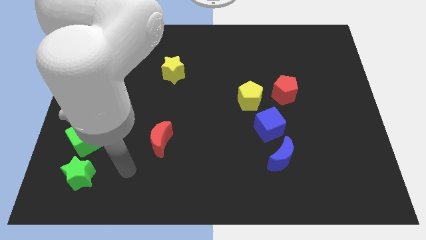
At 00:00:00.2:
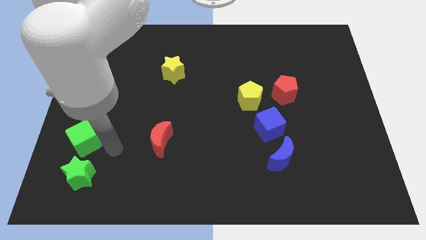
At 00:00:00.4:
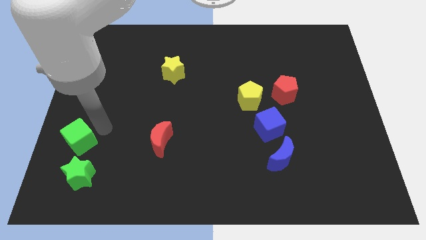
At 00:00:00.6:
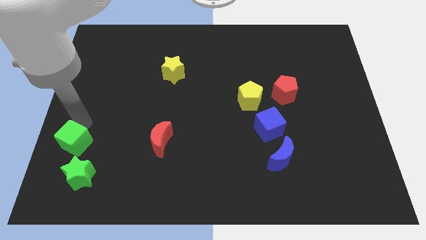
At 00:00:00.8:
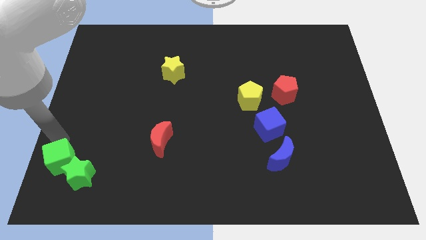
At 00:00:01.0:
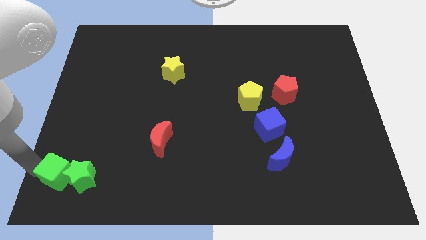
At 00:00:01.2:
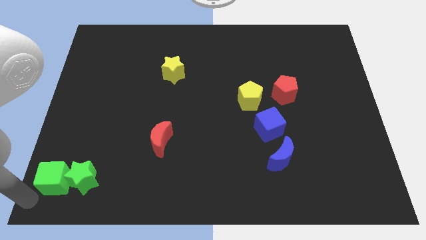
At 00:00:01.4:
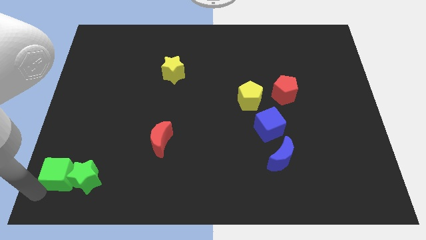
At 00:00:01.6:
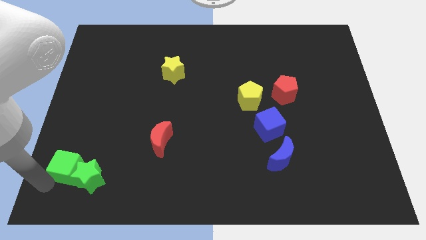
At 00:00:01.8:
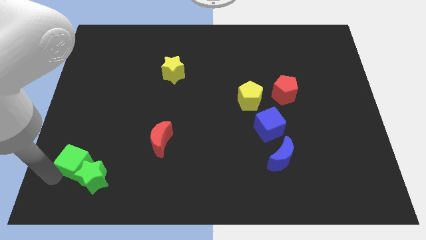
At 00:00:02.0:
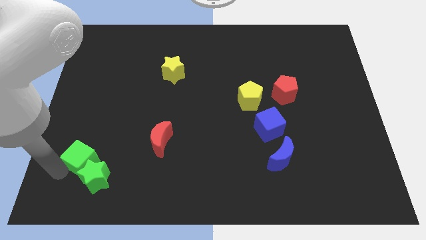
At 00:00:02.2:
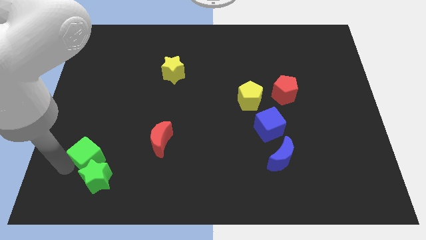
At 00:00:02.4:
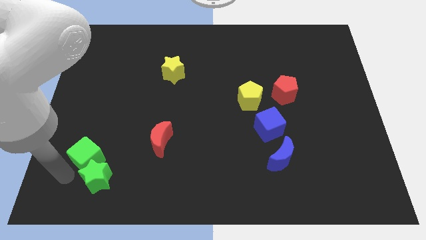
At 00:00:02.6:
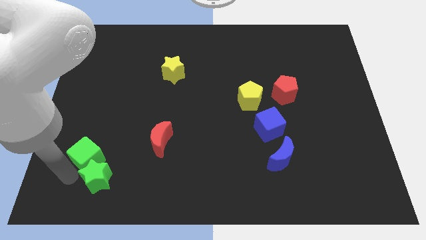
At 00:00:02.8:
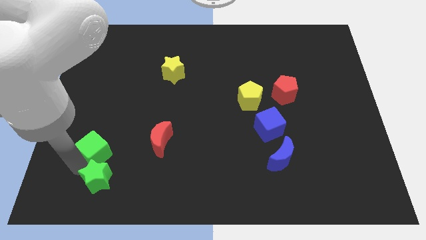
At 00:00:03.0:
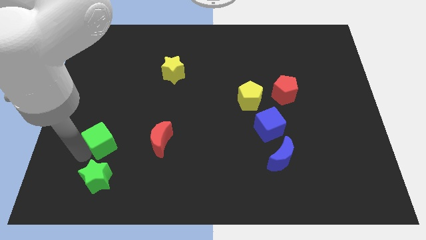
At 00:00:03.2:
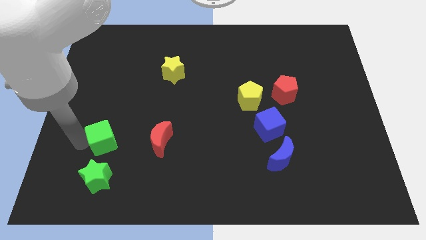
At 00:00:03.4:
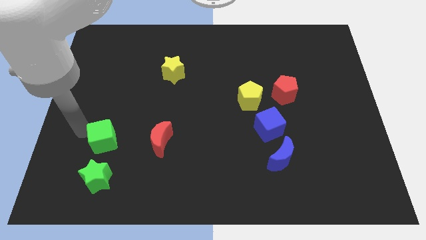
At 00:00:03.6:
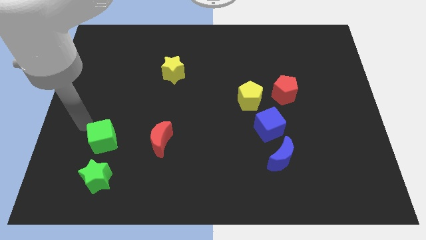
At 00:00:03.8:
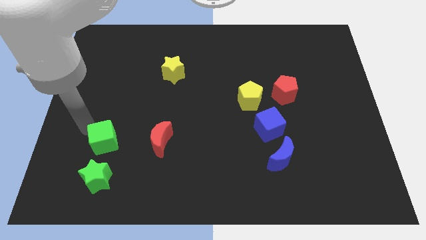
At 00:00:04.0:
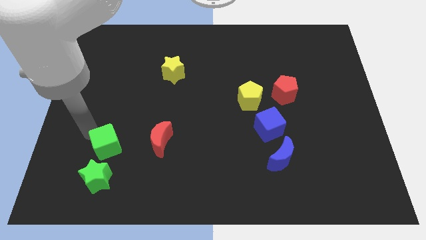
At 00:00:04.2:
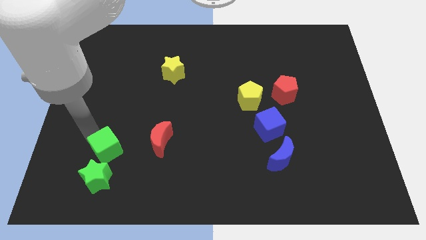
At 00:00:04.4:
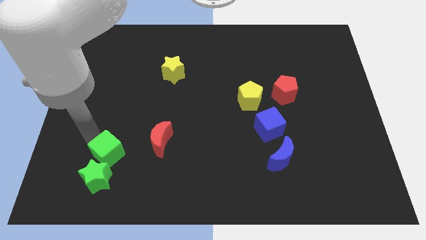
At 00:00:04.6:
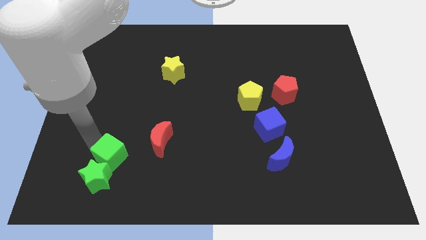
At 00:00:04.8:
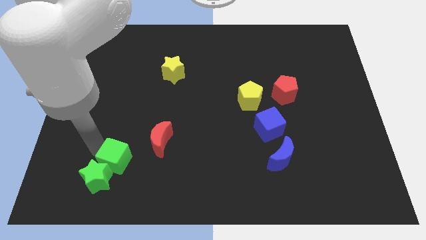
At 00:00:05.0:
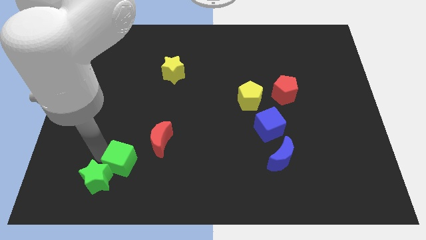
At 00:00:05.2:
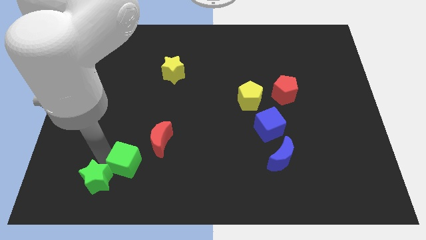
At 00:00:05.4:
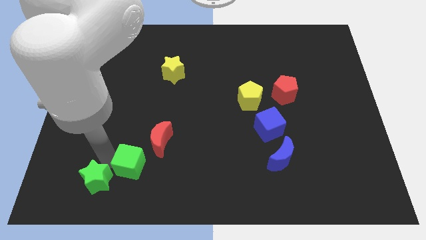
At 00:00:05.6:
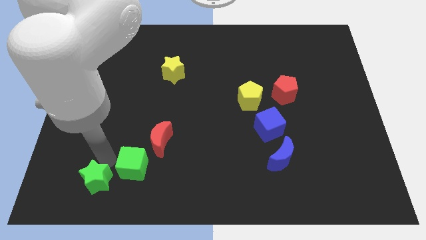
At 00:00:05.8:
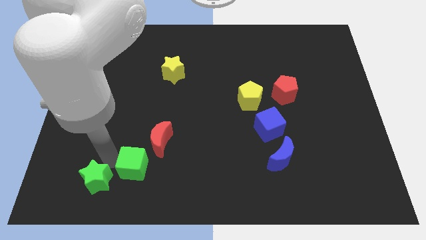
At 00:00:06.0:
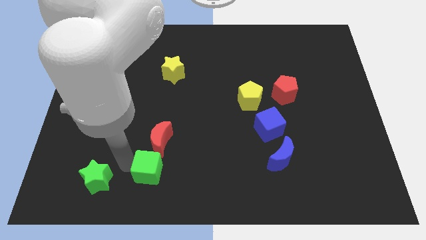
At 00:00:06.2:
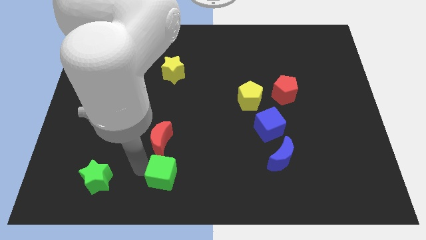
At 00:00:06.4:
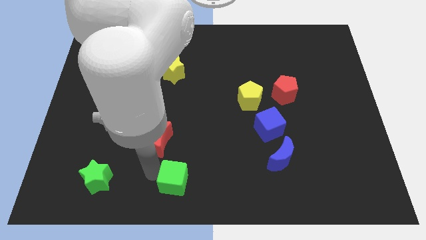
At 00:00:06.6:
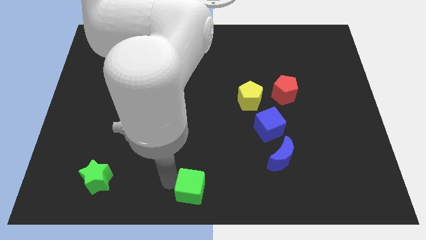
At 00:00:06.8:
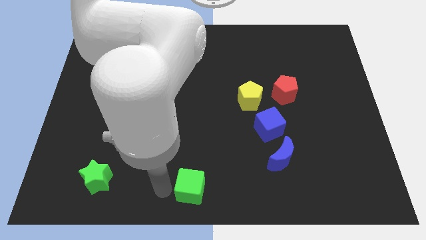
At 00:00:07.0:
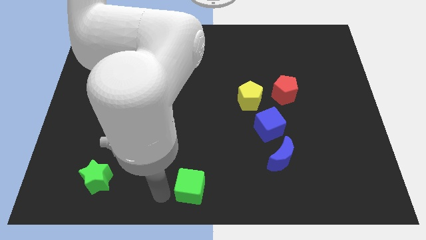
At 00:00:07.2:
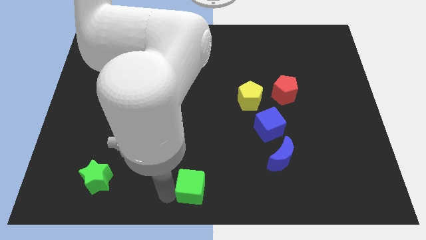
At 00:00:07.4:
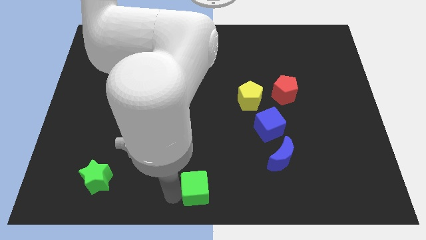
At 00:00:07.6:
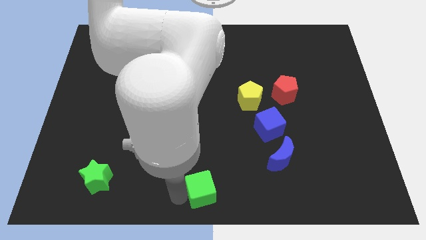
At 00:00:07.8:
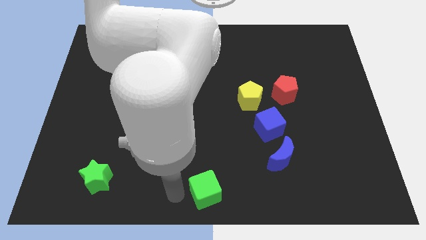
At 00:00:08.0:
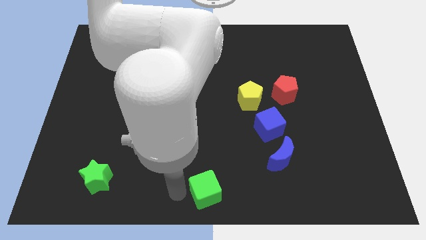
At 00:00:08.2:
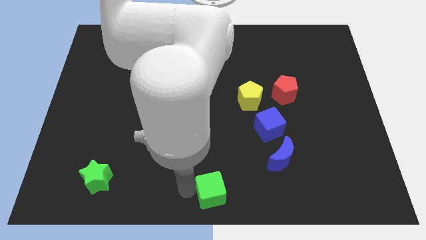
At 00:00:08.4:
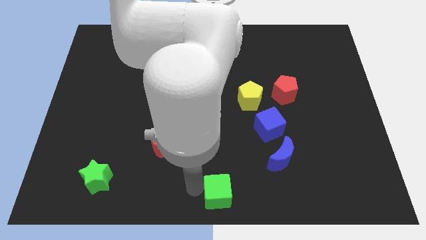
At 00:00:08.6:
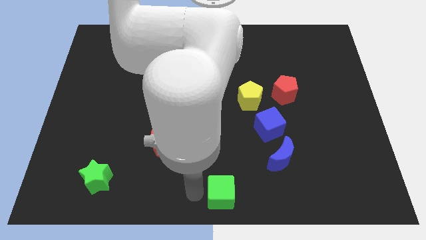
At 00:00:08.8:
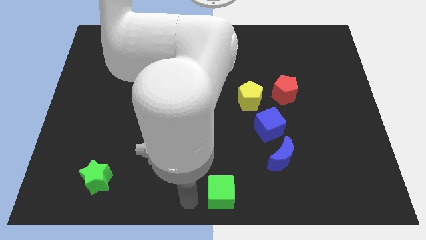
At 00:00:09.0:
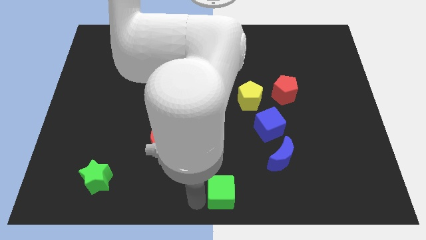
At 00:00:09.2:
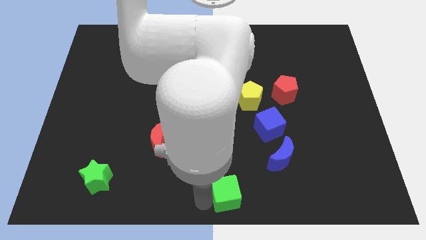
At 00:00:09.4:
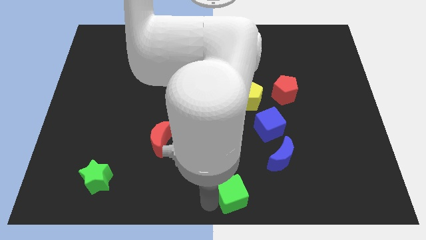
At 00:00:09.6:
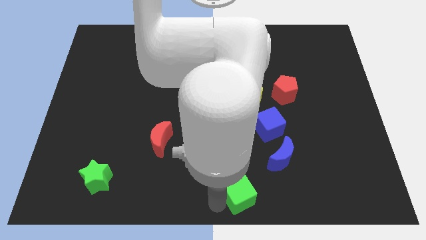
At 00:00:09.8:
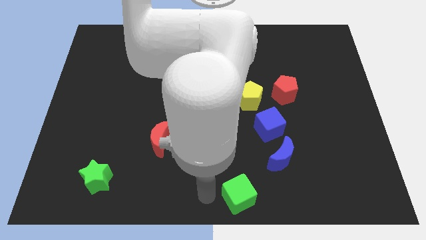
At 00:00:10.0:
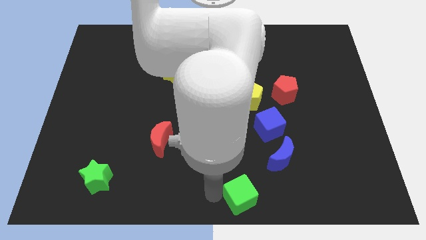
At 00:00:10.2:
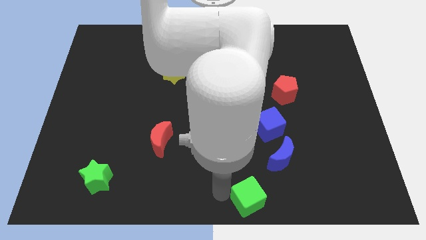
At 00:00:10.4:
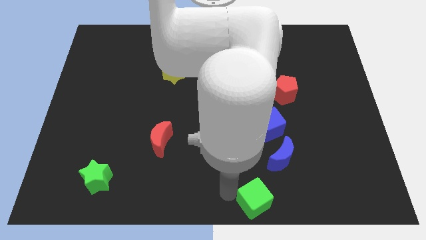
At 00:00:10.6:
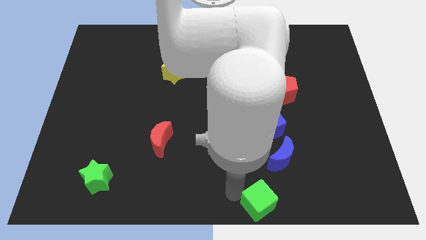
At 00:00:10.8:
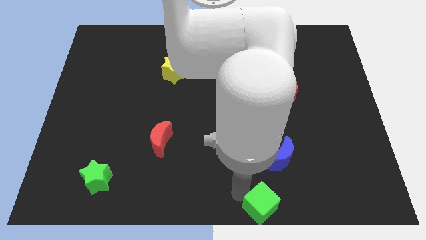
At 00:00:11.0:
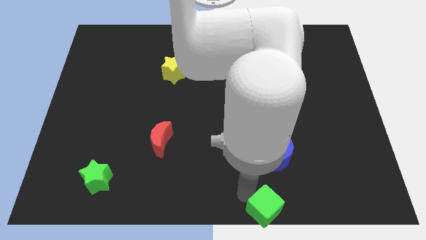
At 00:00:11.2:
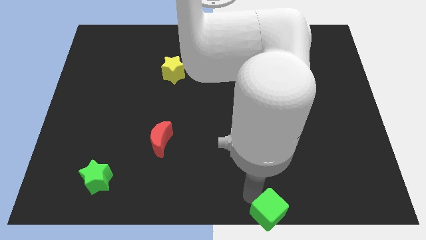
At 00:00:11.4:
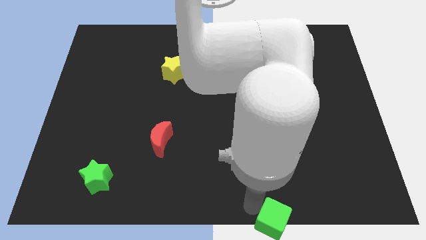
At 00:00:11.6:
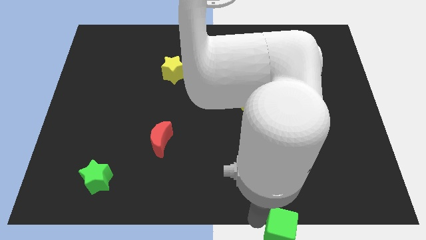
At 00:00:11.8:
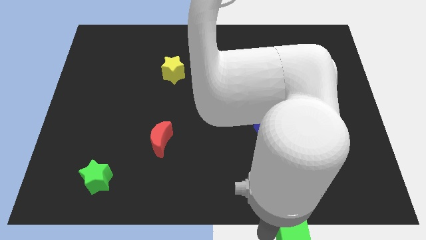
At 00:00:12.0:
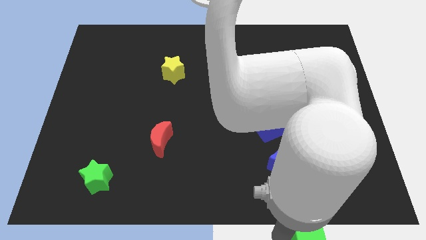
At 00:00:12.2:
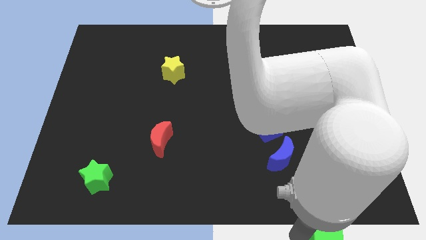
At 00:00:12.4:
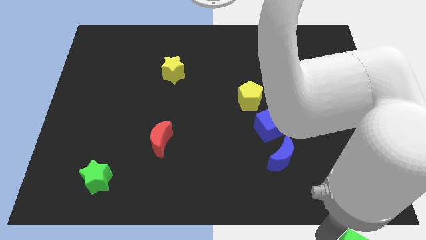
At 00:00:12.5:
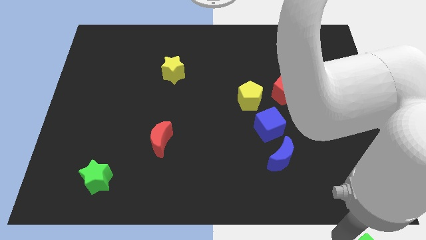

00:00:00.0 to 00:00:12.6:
move the green cube to the bottom right
